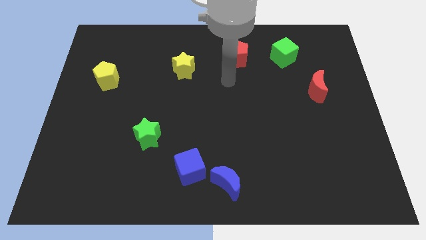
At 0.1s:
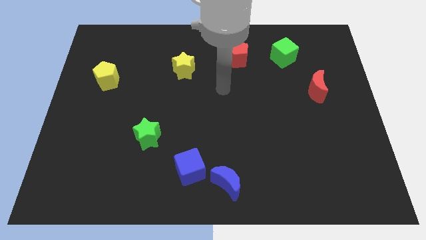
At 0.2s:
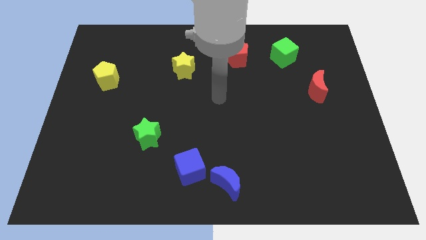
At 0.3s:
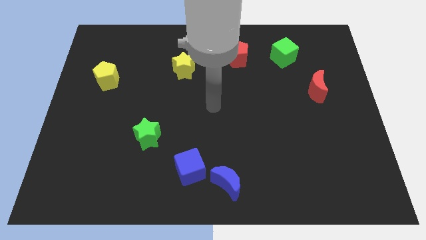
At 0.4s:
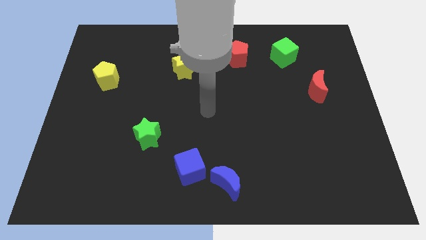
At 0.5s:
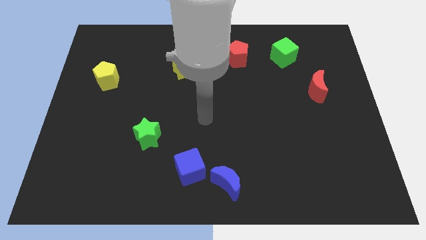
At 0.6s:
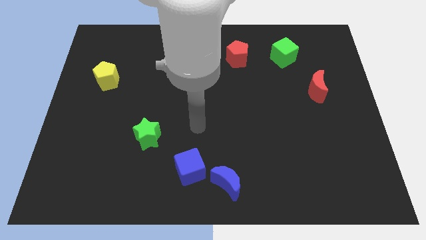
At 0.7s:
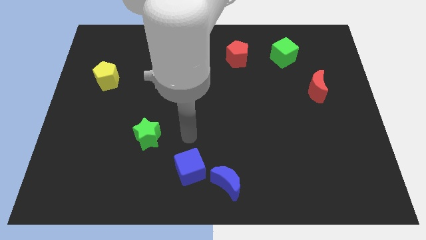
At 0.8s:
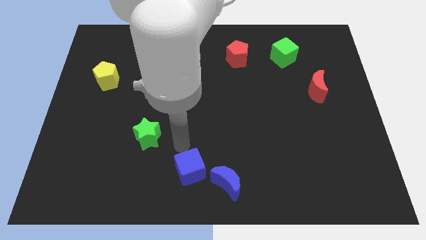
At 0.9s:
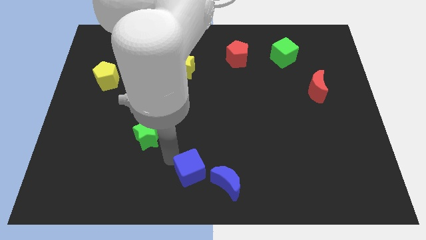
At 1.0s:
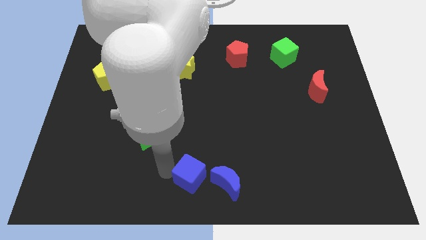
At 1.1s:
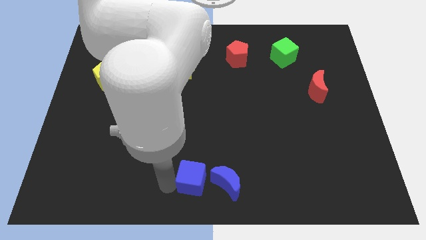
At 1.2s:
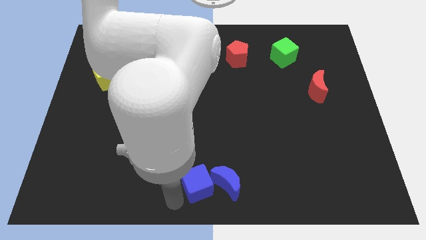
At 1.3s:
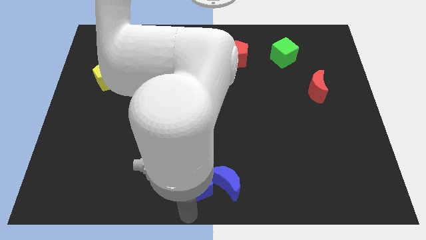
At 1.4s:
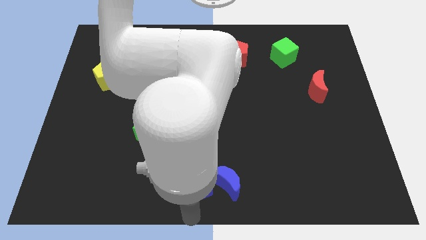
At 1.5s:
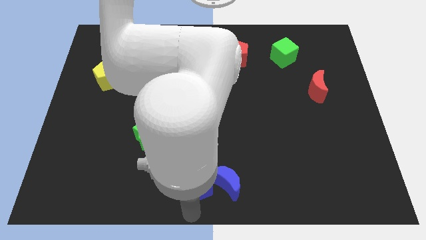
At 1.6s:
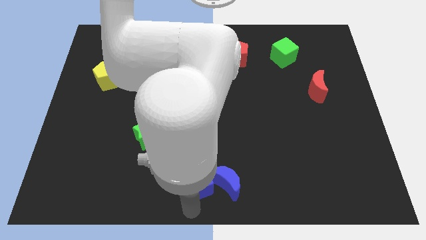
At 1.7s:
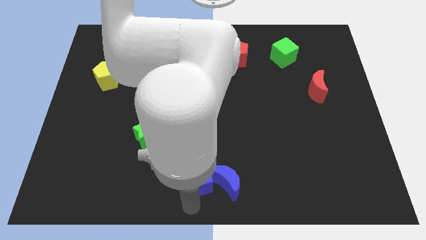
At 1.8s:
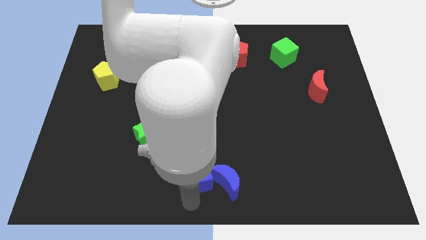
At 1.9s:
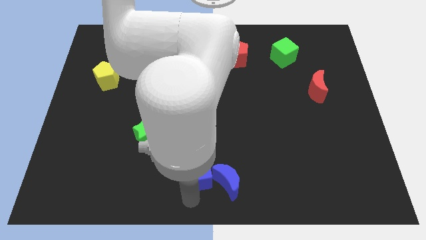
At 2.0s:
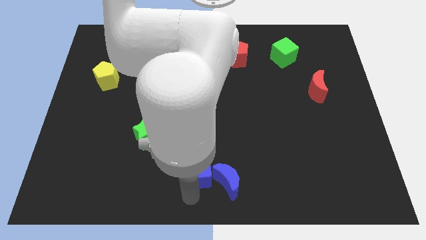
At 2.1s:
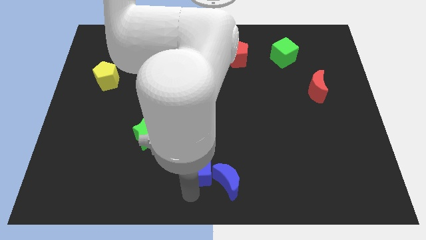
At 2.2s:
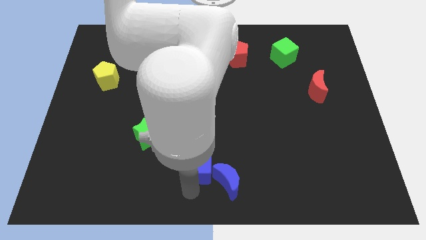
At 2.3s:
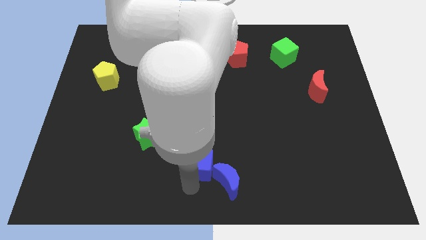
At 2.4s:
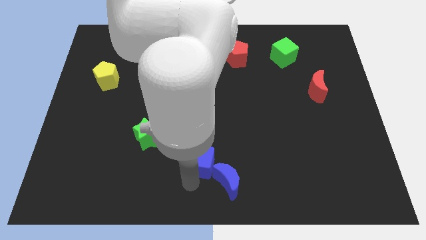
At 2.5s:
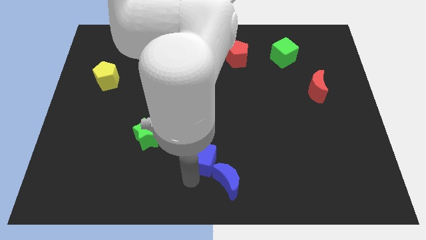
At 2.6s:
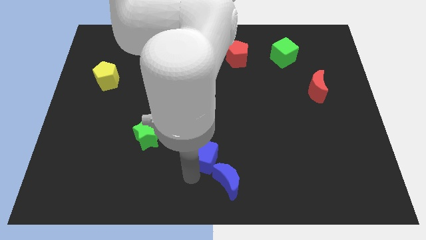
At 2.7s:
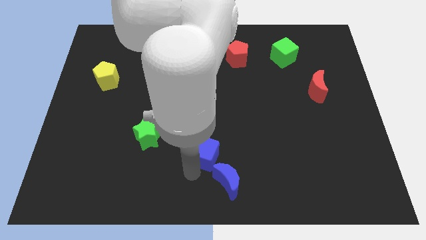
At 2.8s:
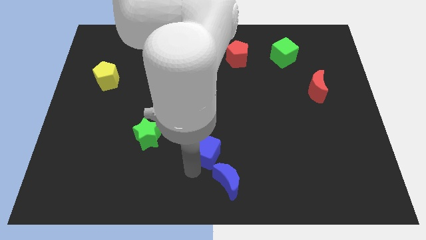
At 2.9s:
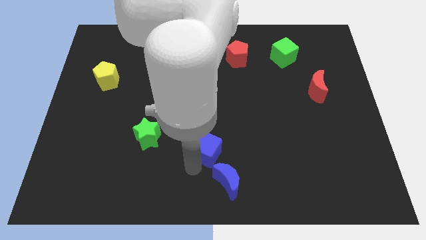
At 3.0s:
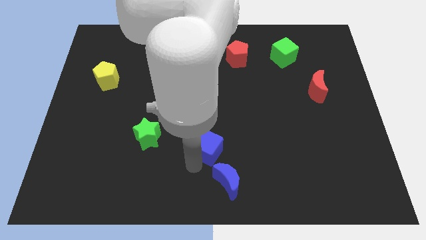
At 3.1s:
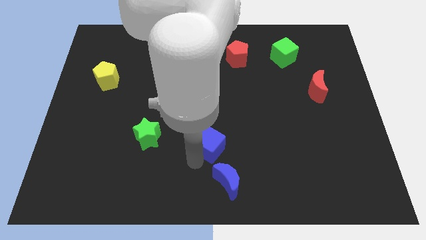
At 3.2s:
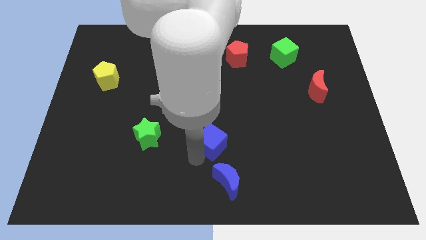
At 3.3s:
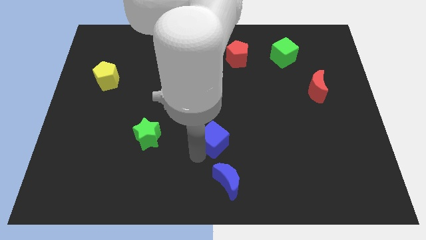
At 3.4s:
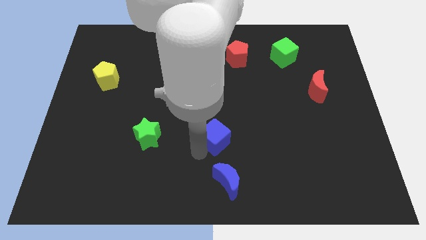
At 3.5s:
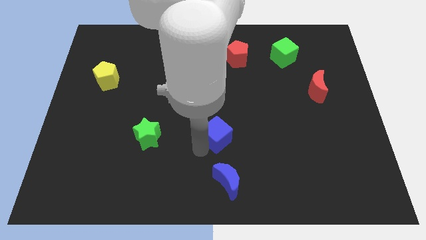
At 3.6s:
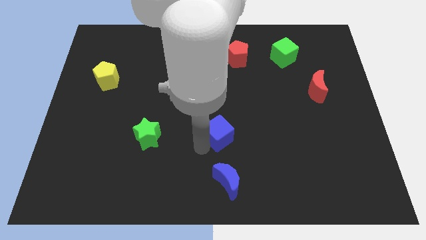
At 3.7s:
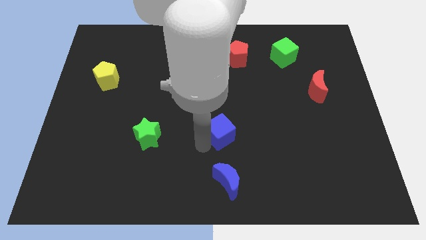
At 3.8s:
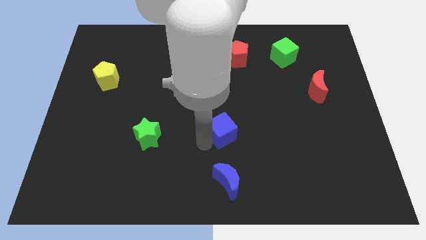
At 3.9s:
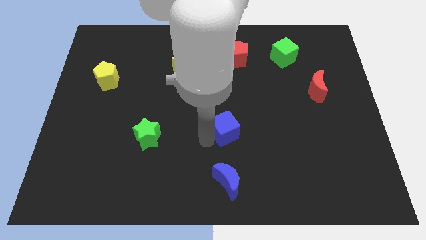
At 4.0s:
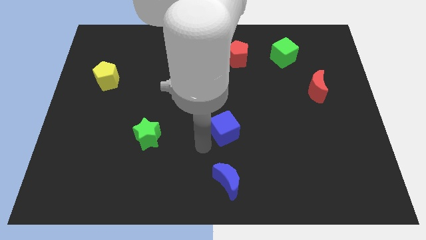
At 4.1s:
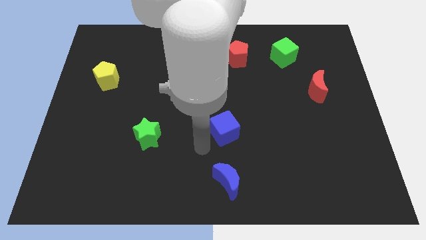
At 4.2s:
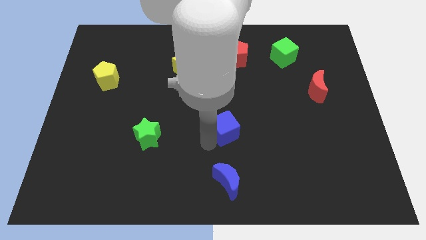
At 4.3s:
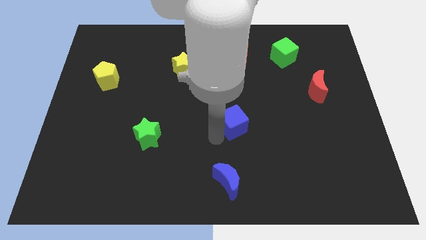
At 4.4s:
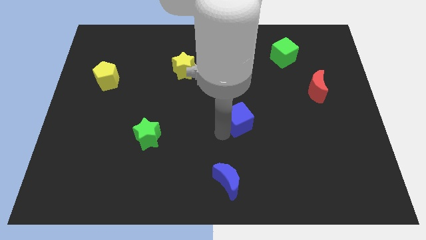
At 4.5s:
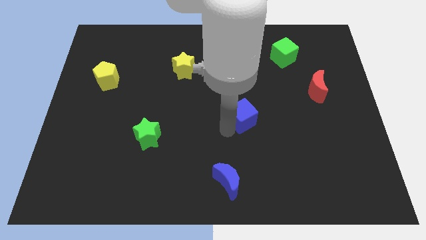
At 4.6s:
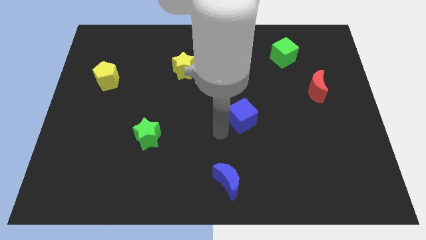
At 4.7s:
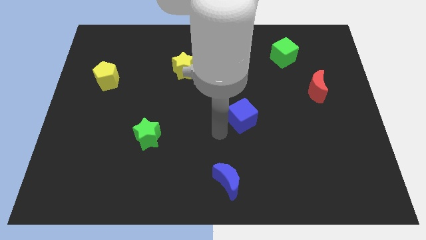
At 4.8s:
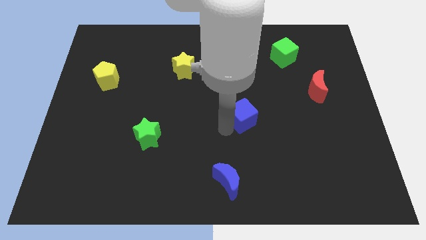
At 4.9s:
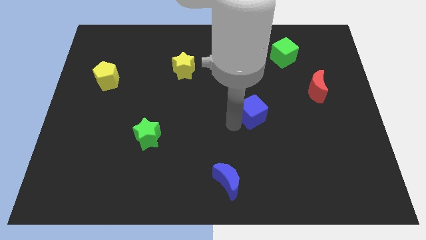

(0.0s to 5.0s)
push the blue cube up and right diagonally

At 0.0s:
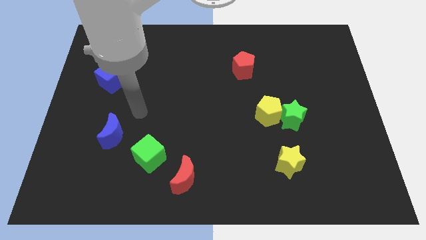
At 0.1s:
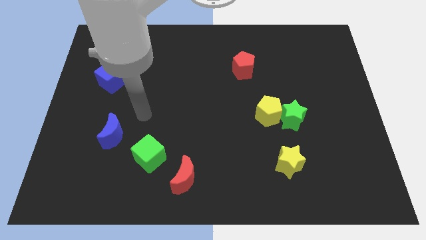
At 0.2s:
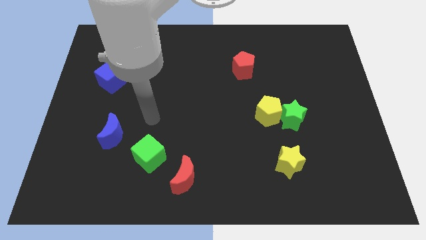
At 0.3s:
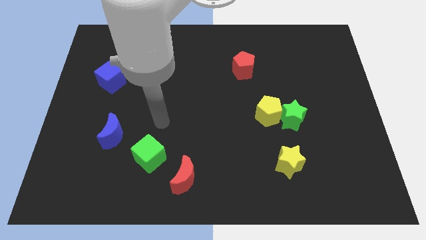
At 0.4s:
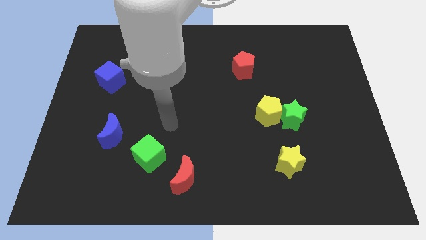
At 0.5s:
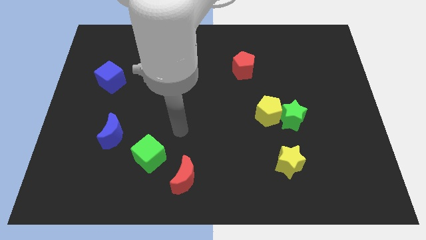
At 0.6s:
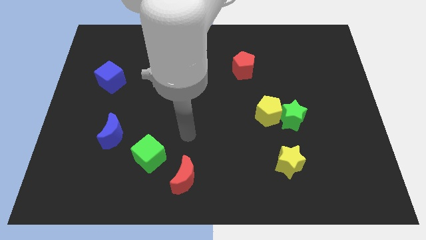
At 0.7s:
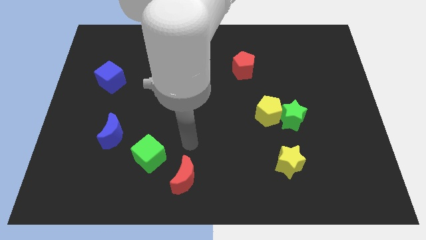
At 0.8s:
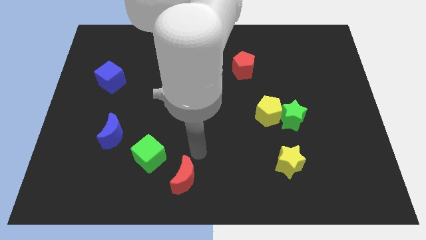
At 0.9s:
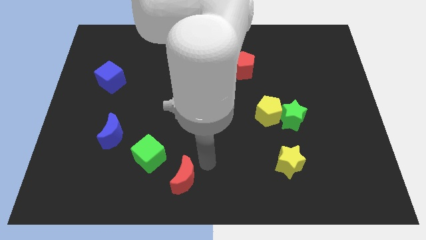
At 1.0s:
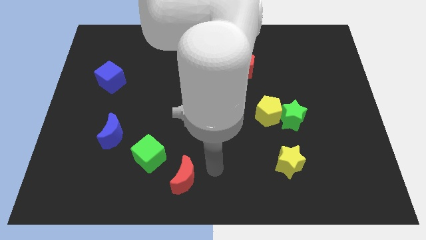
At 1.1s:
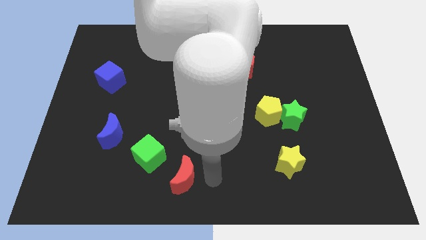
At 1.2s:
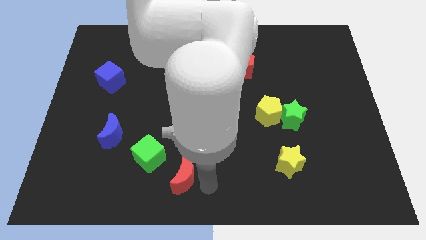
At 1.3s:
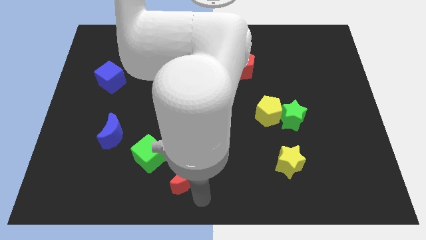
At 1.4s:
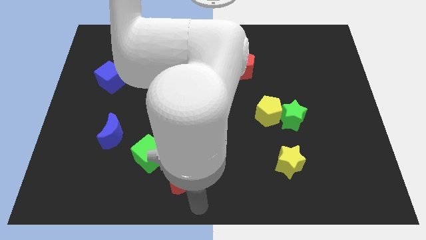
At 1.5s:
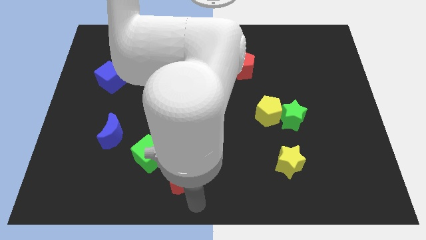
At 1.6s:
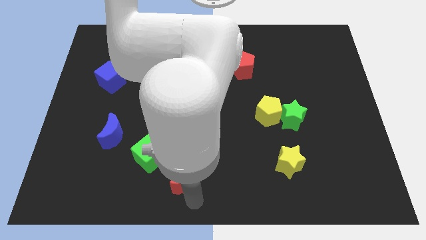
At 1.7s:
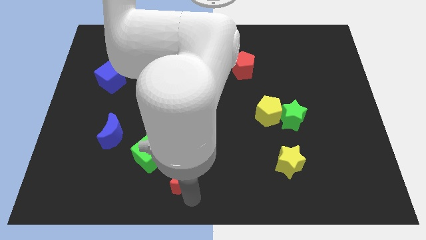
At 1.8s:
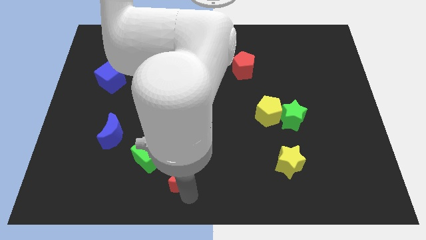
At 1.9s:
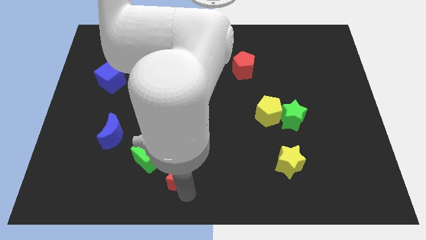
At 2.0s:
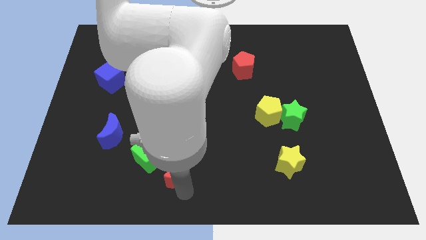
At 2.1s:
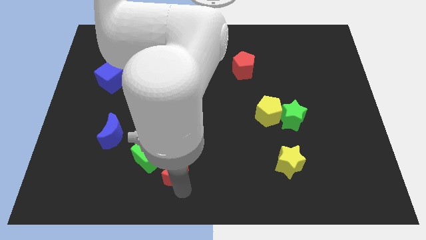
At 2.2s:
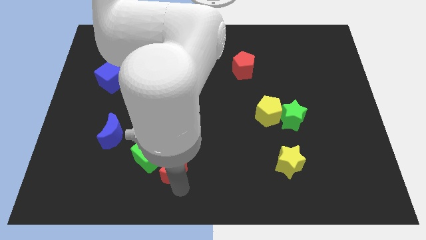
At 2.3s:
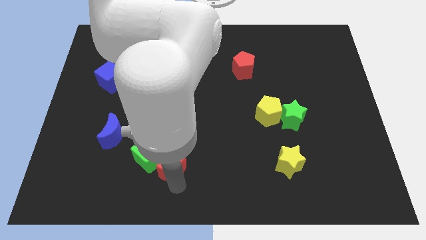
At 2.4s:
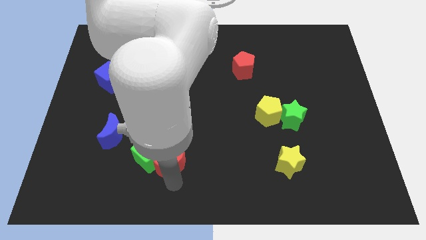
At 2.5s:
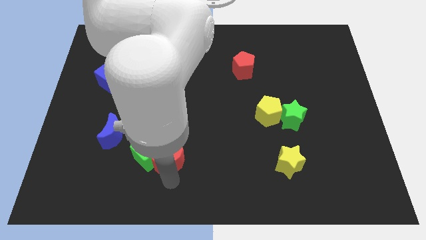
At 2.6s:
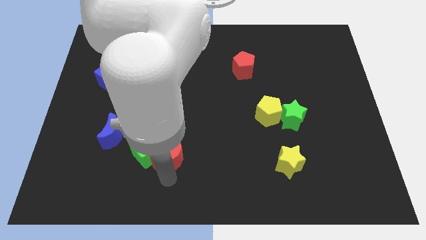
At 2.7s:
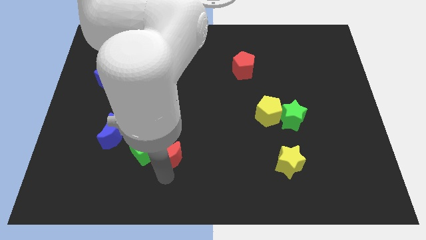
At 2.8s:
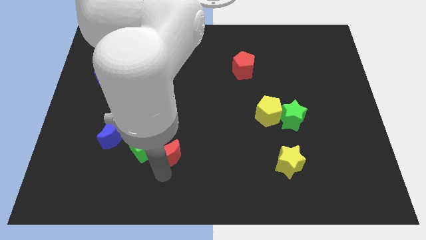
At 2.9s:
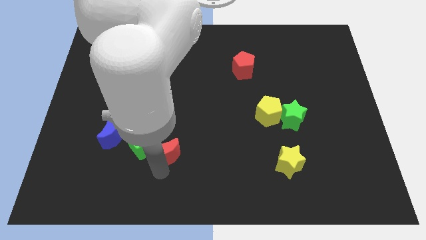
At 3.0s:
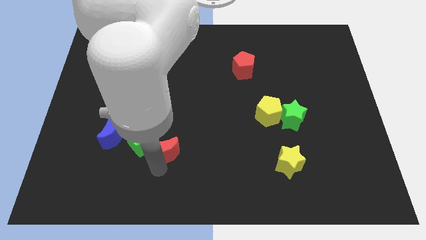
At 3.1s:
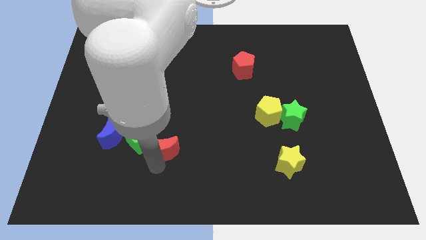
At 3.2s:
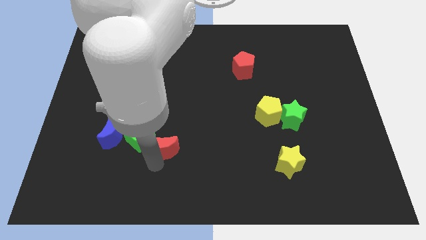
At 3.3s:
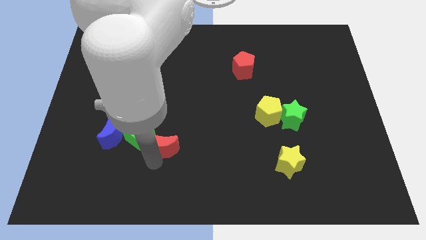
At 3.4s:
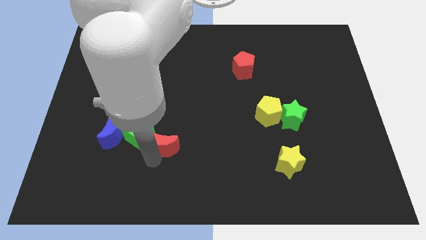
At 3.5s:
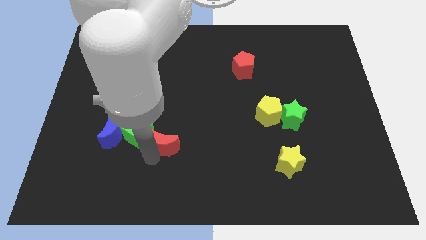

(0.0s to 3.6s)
slide the red moon a little bit up
